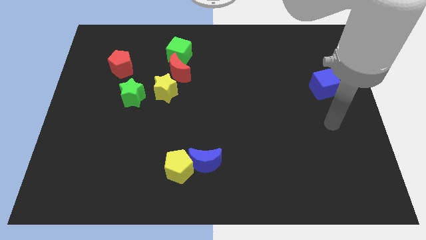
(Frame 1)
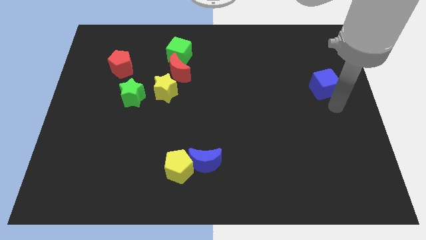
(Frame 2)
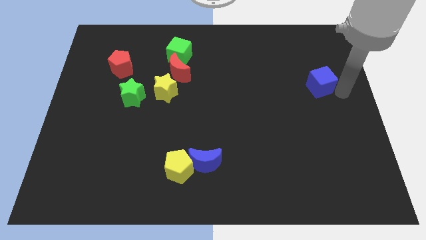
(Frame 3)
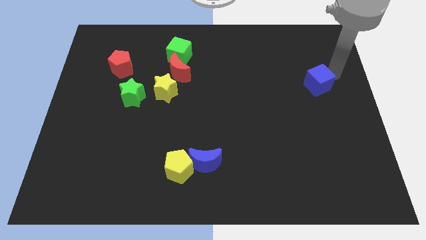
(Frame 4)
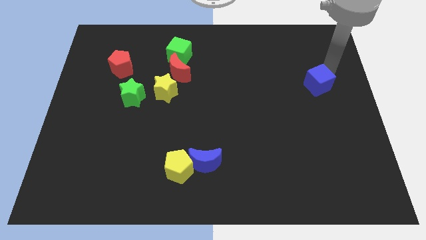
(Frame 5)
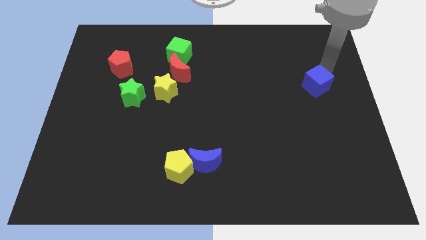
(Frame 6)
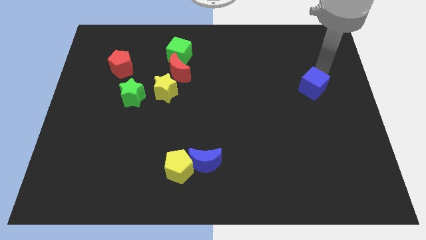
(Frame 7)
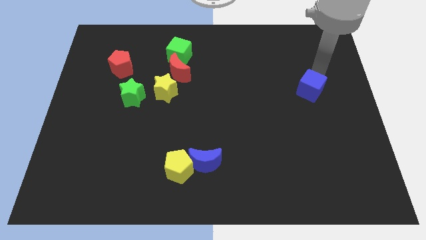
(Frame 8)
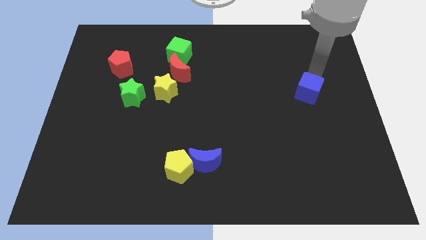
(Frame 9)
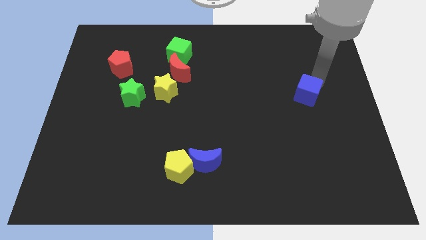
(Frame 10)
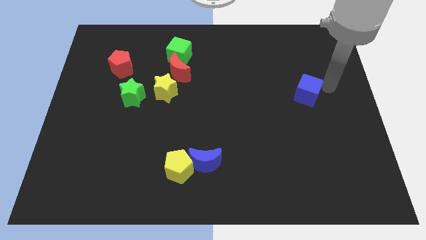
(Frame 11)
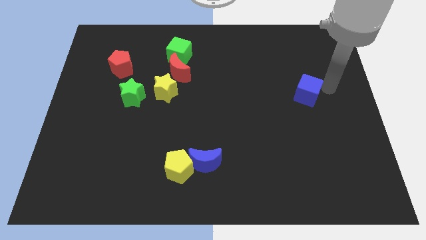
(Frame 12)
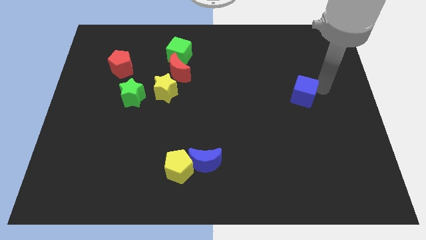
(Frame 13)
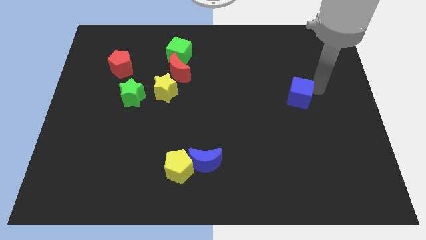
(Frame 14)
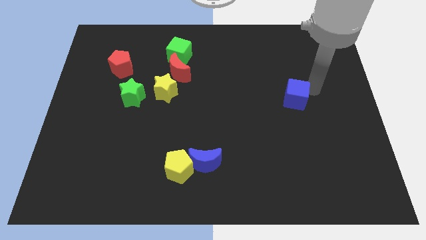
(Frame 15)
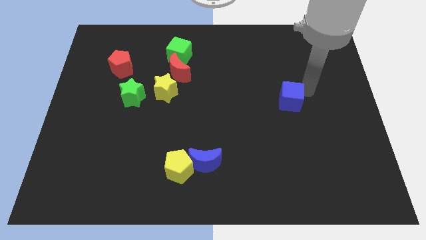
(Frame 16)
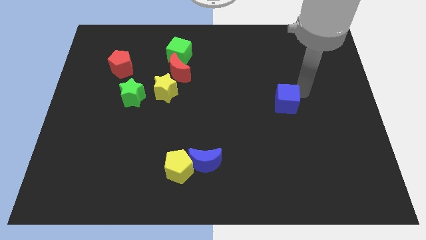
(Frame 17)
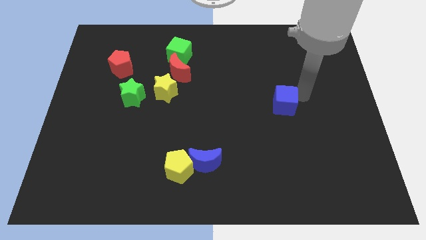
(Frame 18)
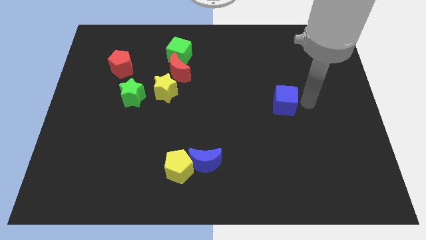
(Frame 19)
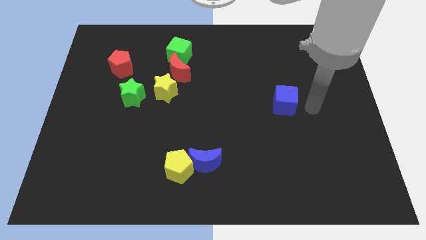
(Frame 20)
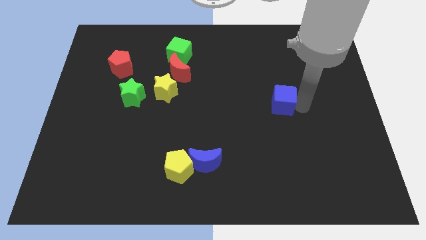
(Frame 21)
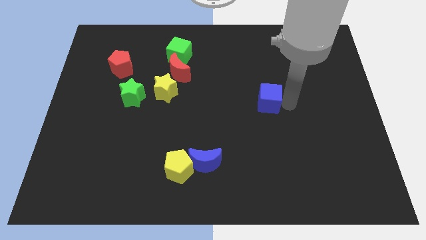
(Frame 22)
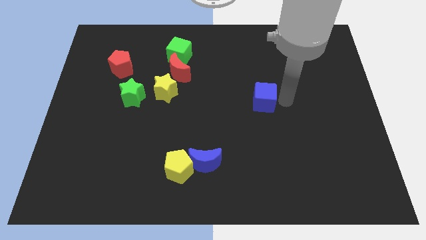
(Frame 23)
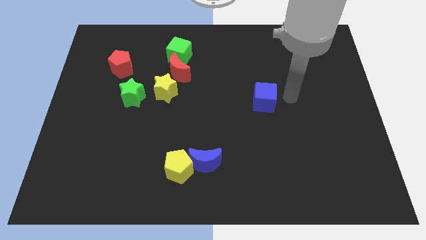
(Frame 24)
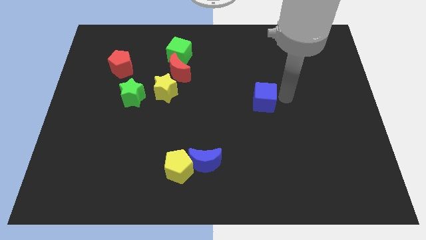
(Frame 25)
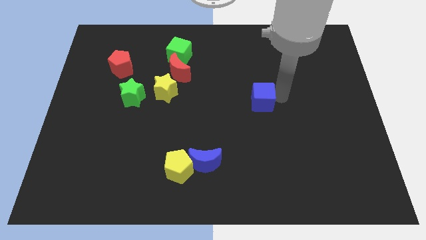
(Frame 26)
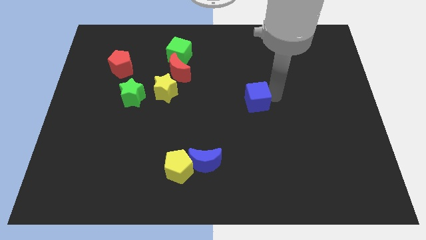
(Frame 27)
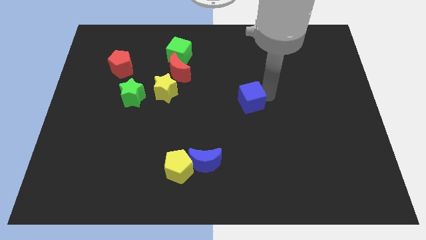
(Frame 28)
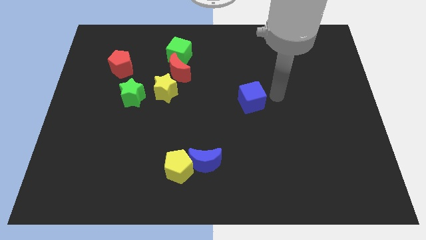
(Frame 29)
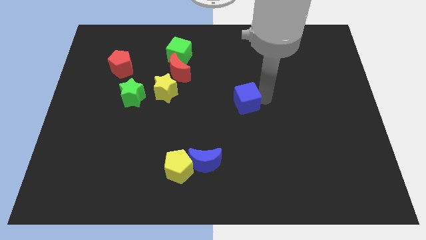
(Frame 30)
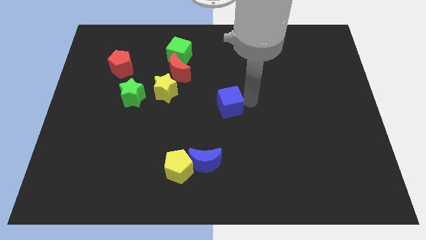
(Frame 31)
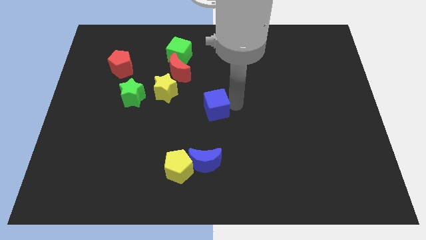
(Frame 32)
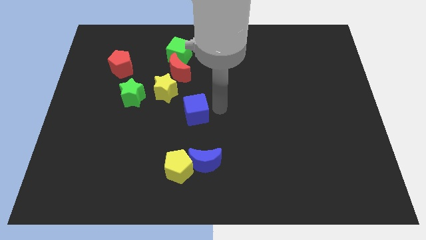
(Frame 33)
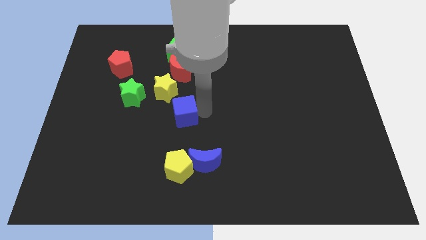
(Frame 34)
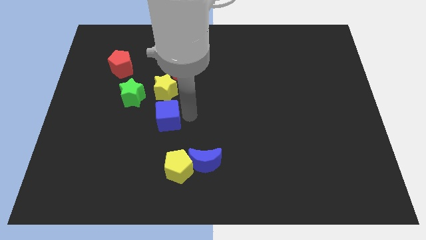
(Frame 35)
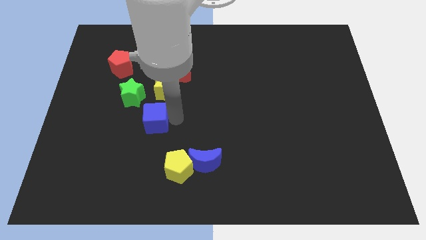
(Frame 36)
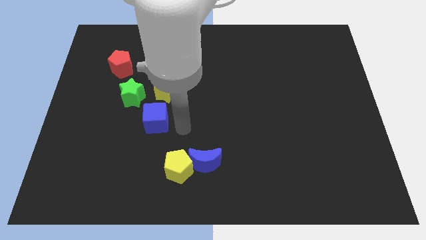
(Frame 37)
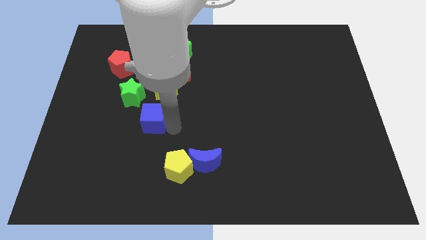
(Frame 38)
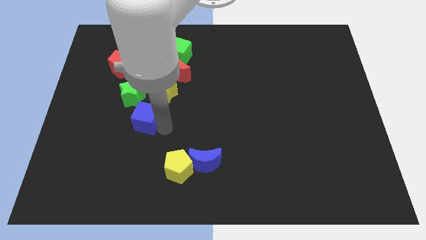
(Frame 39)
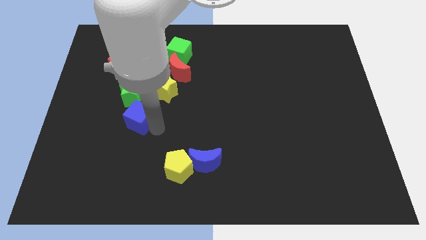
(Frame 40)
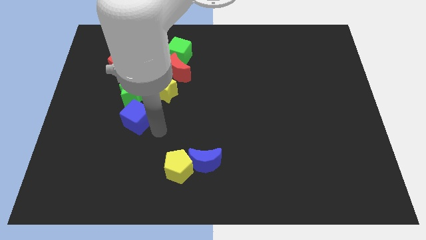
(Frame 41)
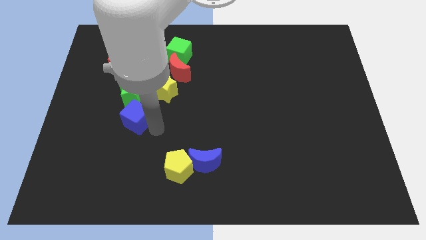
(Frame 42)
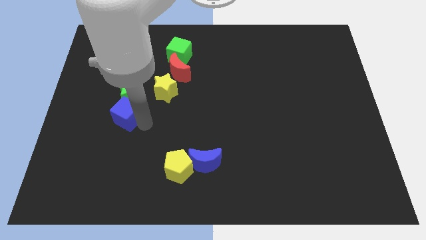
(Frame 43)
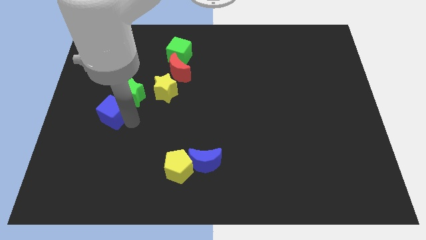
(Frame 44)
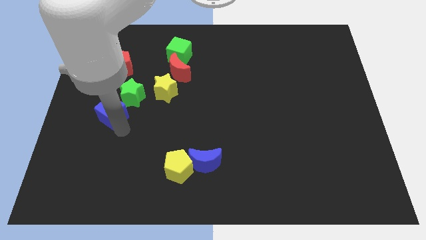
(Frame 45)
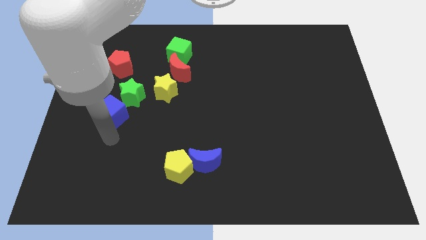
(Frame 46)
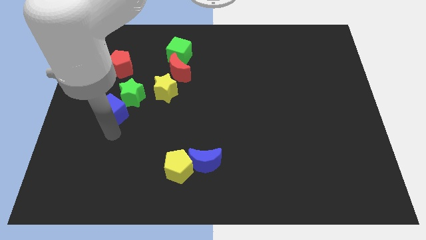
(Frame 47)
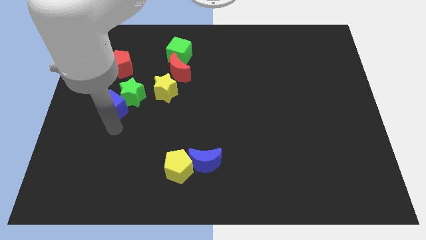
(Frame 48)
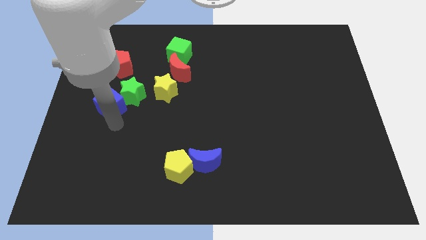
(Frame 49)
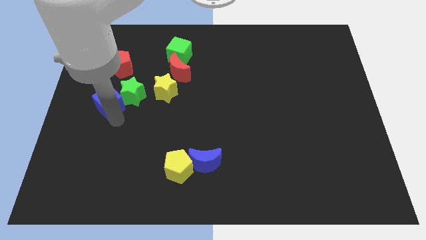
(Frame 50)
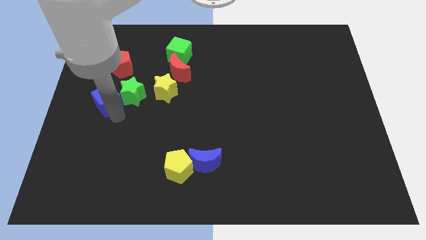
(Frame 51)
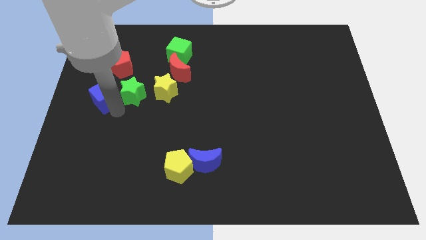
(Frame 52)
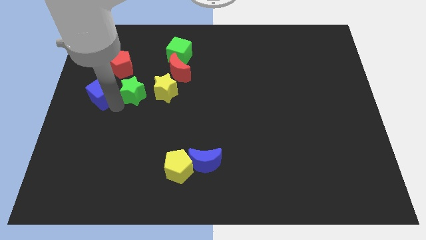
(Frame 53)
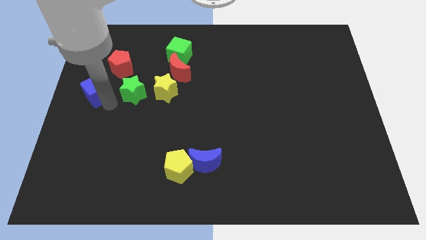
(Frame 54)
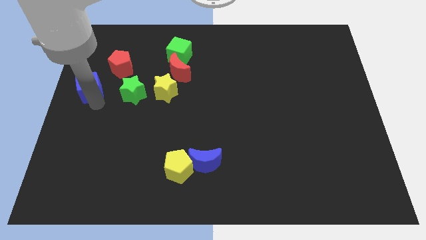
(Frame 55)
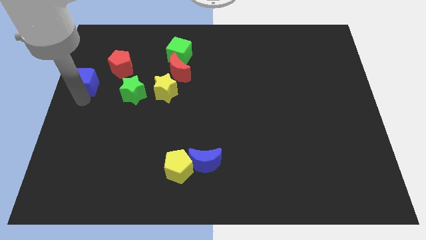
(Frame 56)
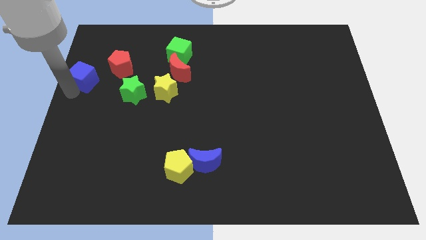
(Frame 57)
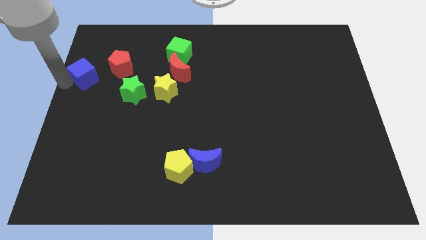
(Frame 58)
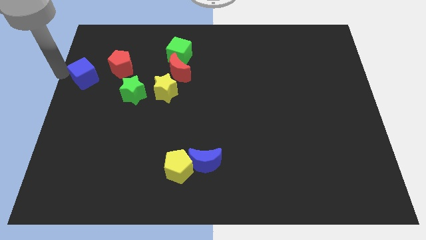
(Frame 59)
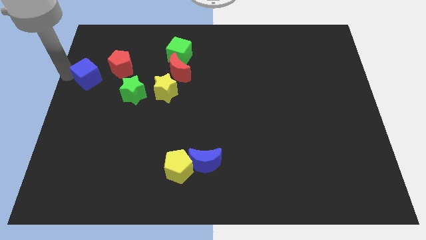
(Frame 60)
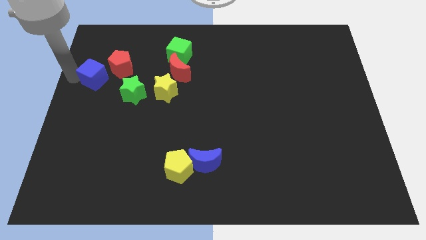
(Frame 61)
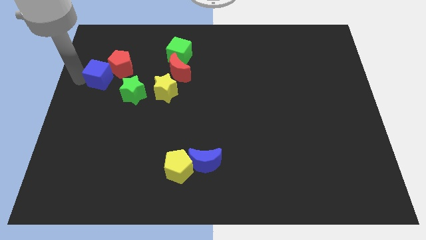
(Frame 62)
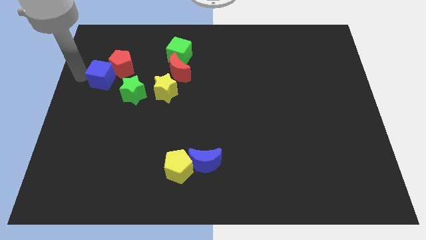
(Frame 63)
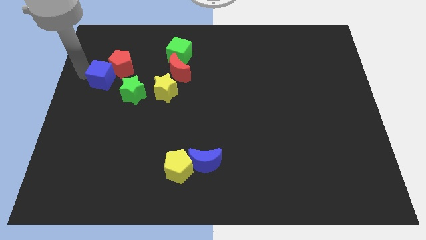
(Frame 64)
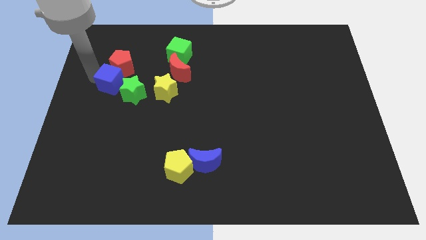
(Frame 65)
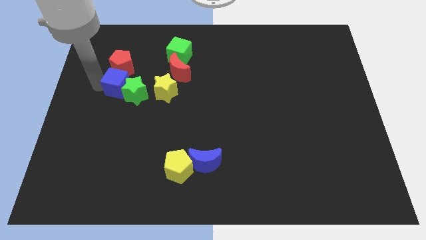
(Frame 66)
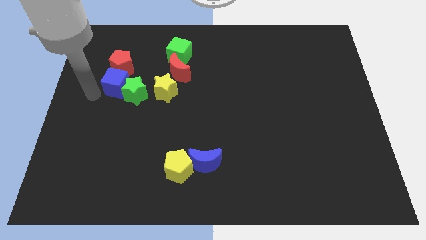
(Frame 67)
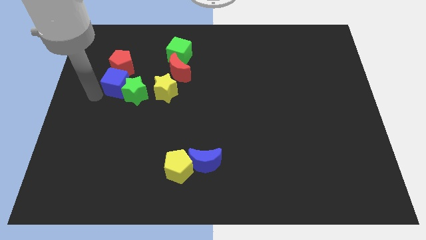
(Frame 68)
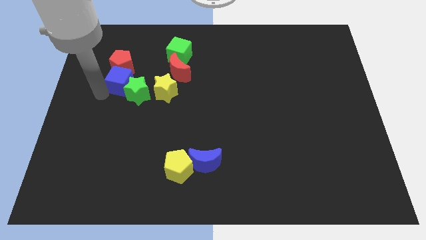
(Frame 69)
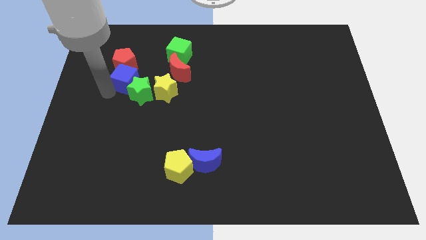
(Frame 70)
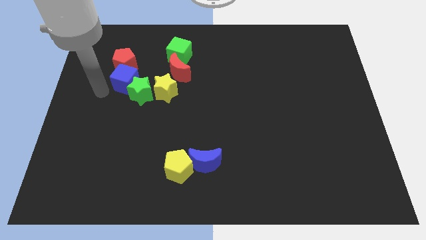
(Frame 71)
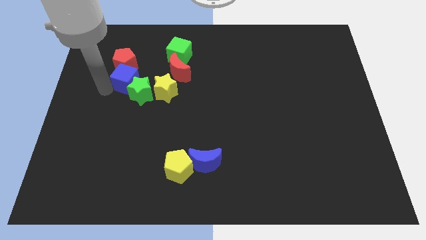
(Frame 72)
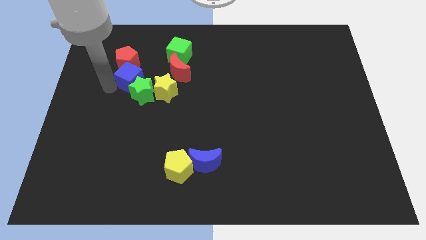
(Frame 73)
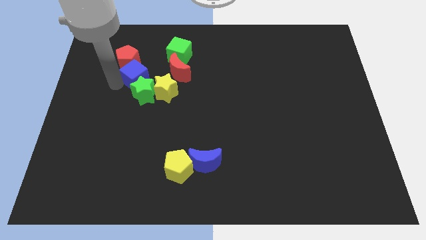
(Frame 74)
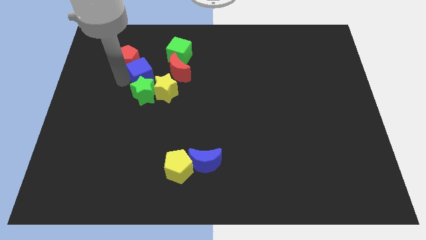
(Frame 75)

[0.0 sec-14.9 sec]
put the blue cube to the right side of the red pentagon
